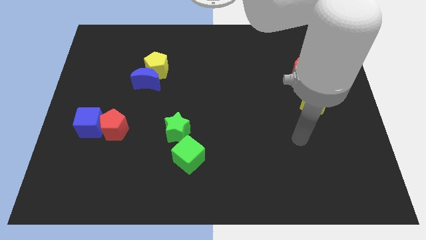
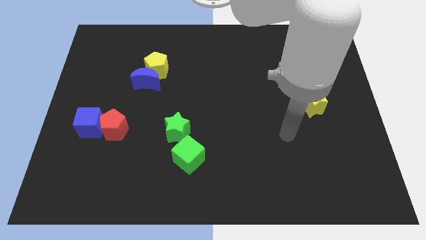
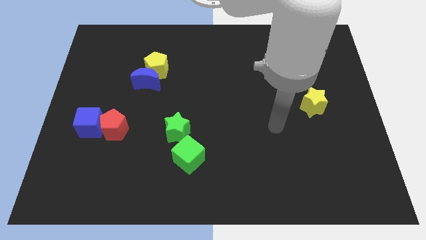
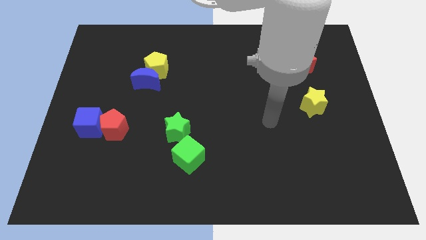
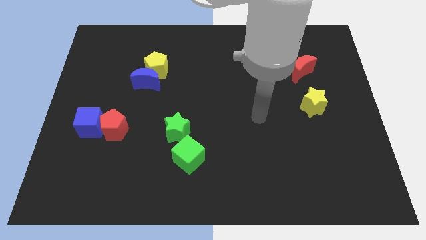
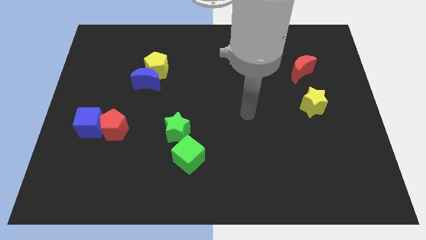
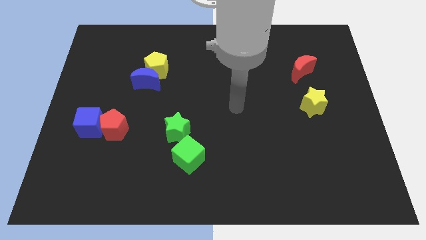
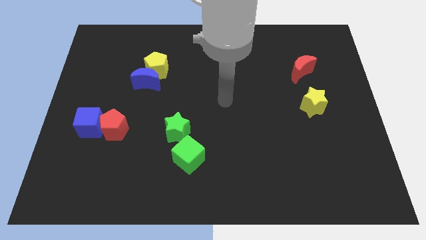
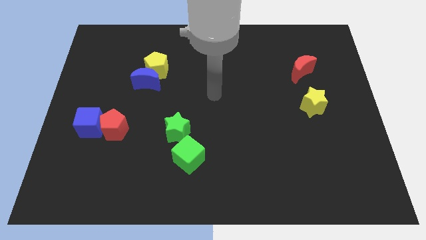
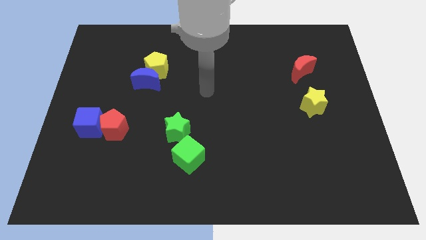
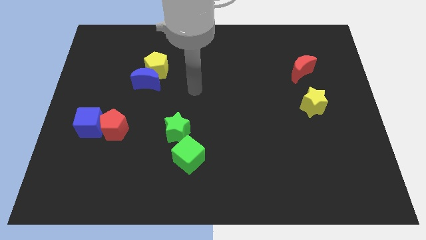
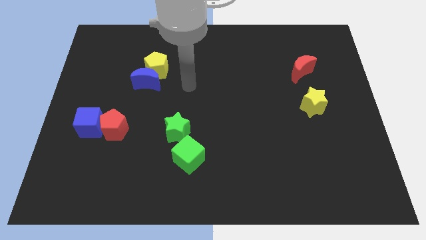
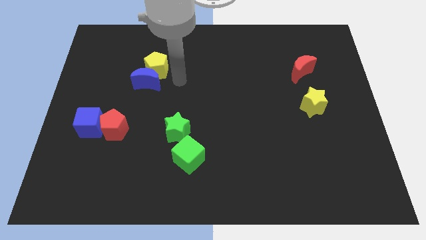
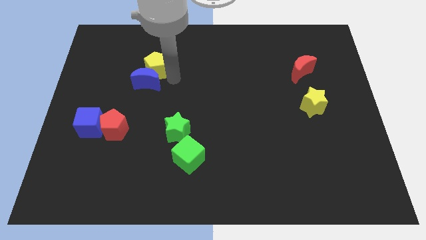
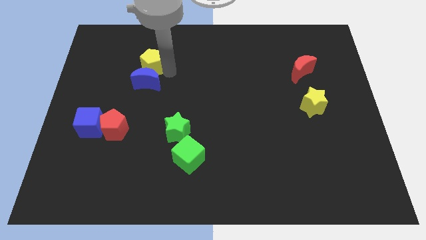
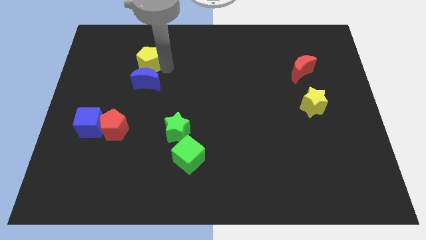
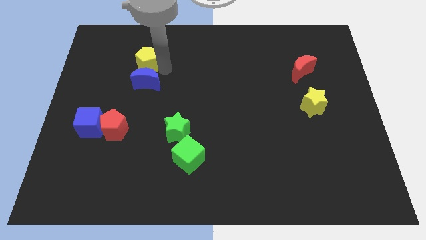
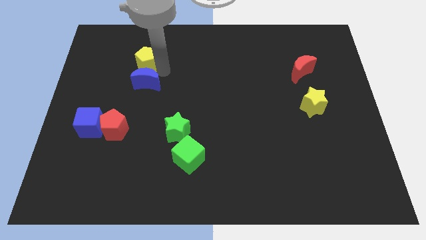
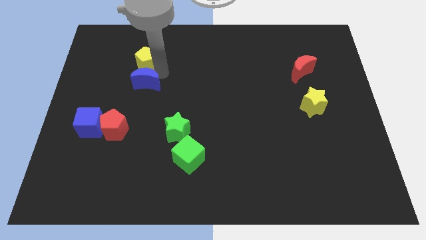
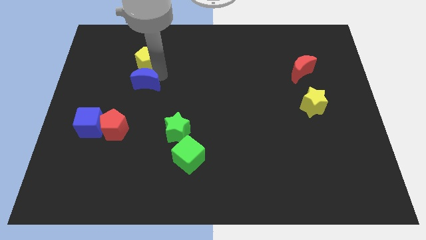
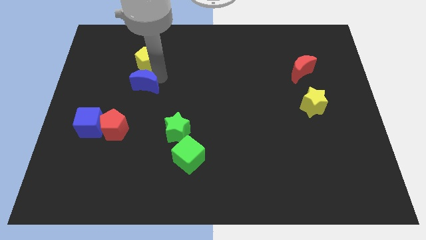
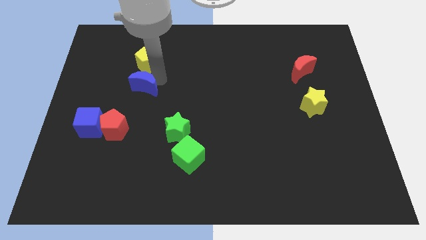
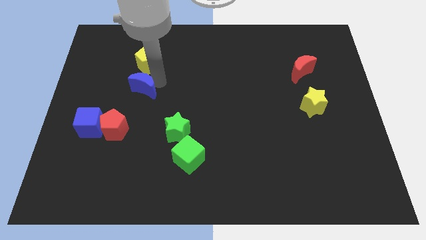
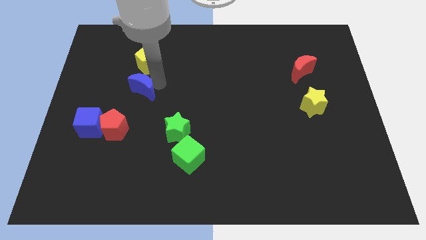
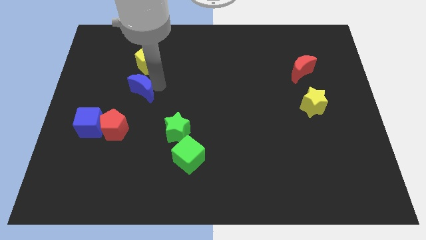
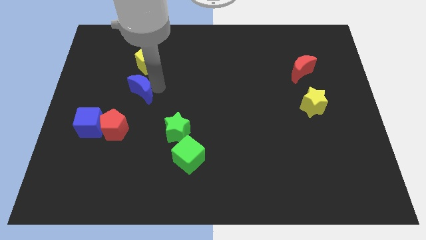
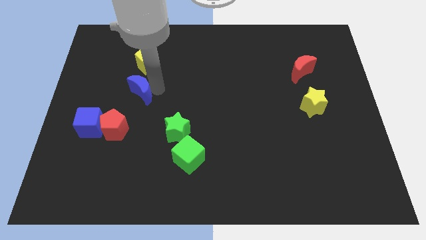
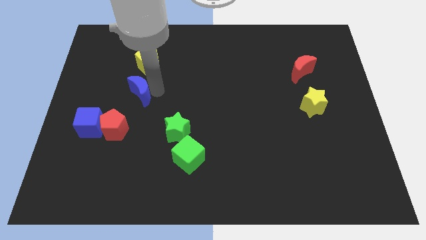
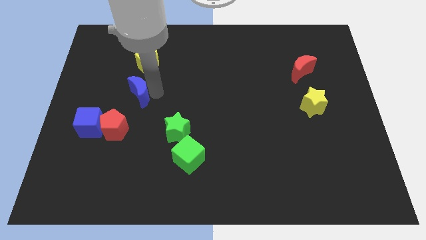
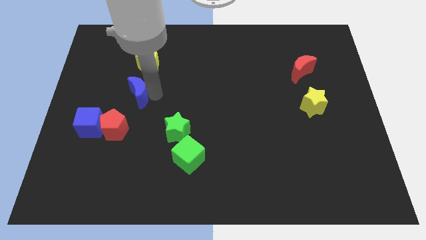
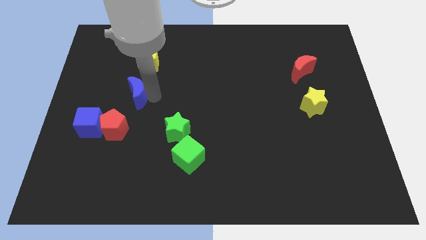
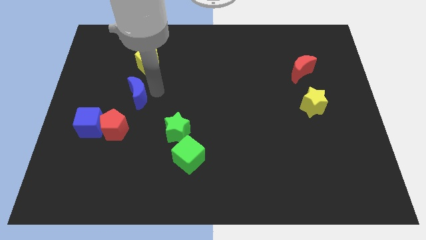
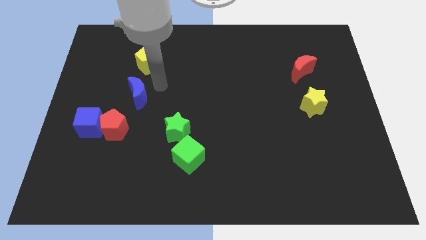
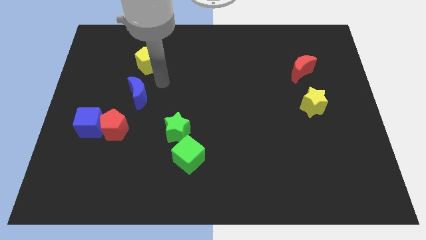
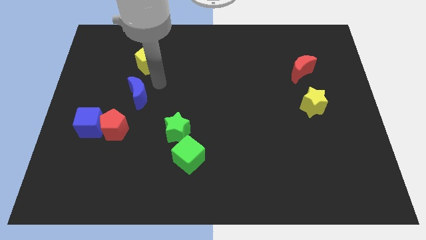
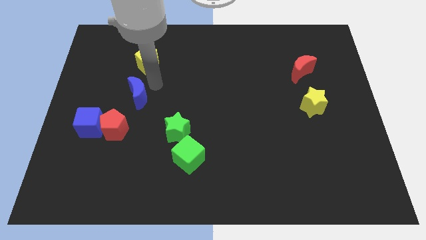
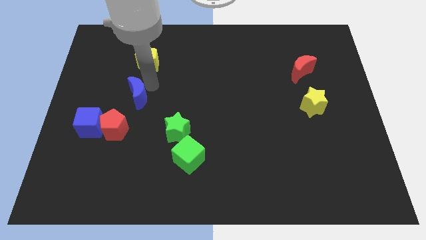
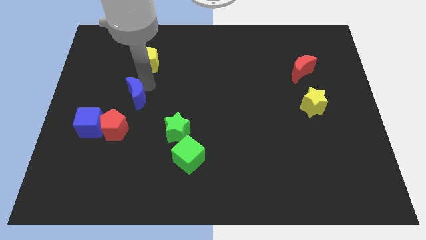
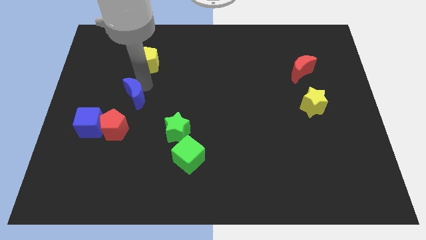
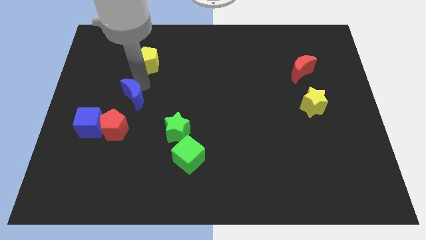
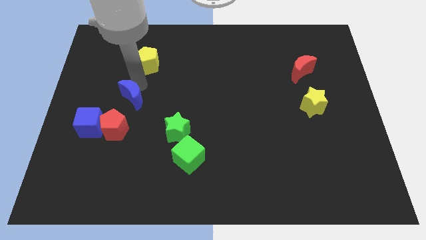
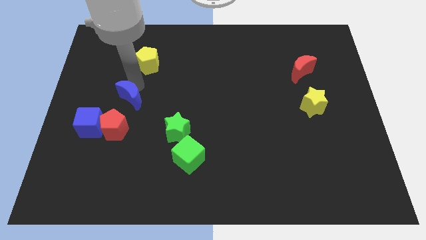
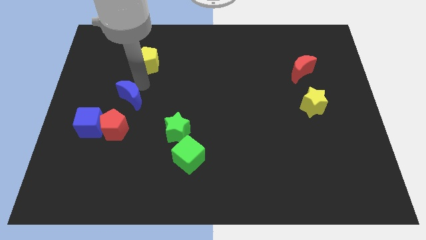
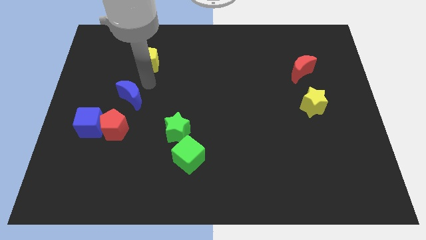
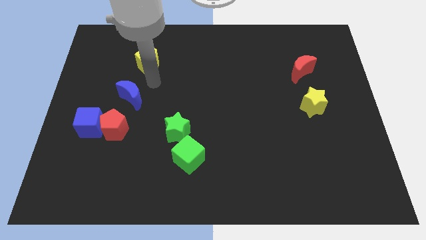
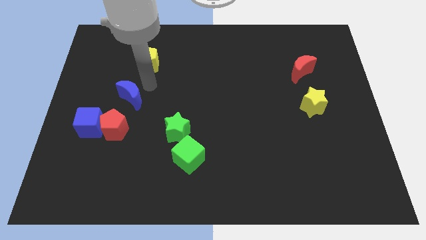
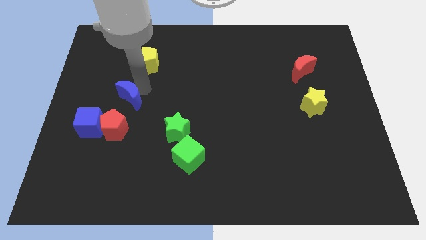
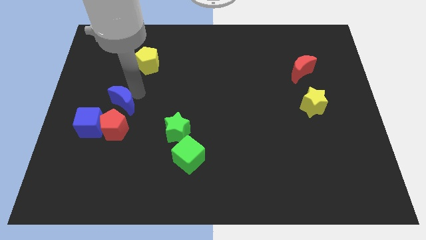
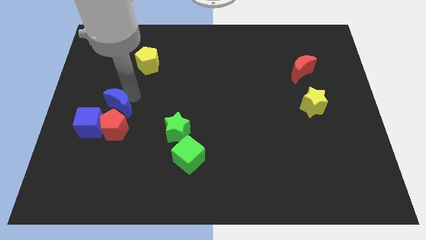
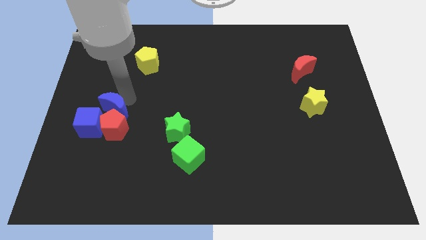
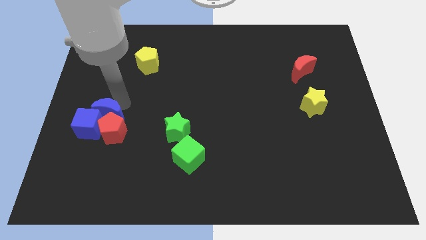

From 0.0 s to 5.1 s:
slide the blue moon towards the blue cube

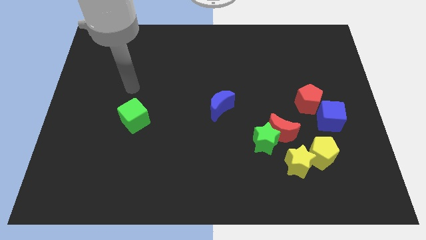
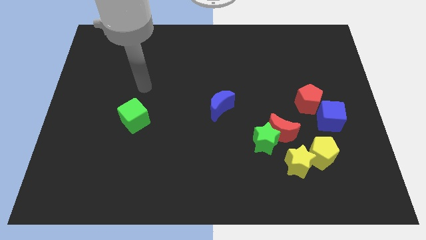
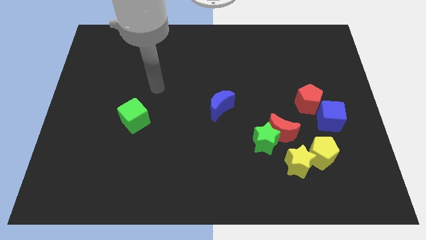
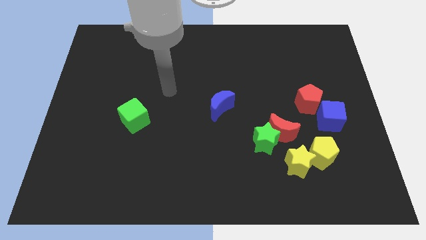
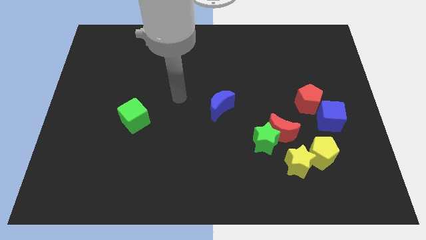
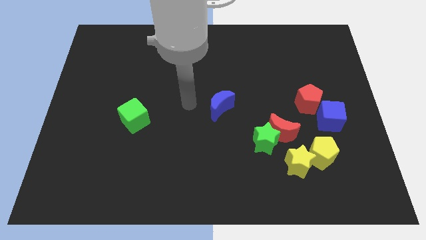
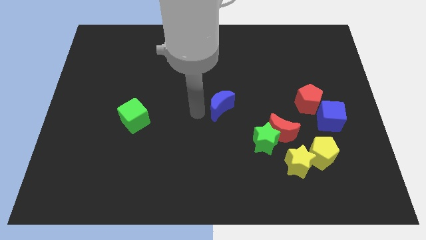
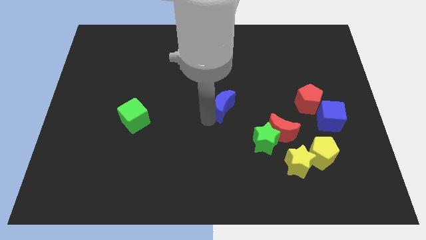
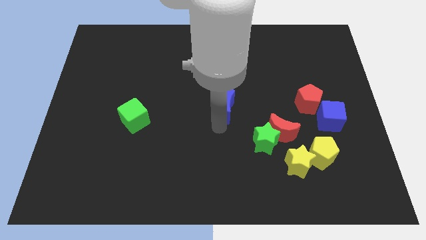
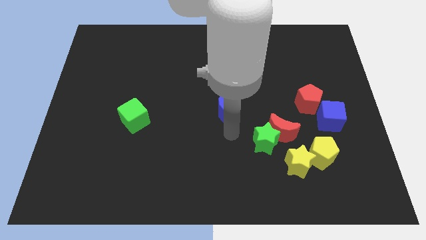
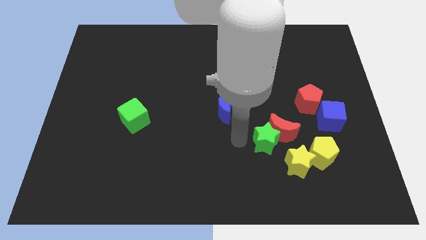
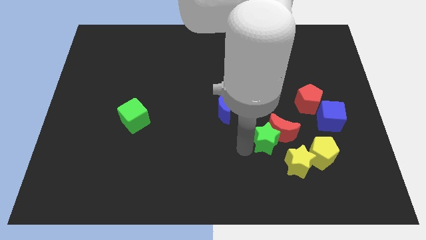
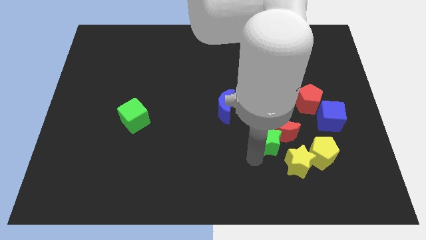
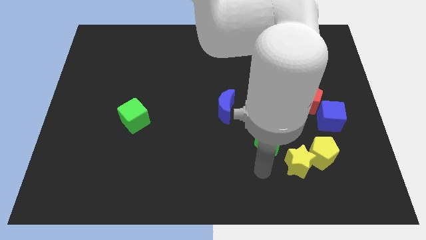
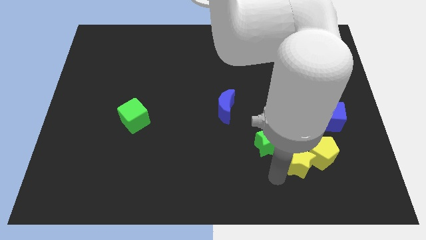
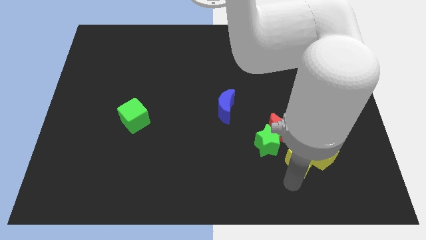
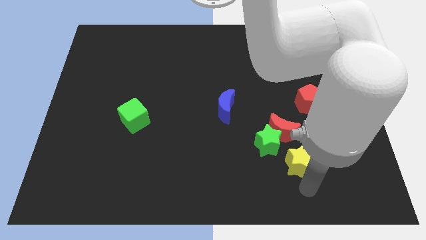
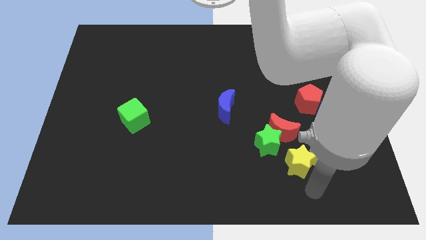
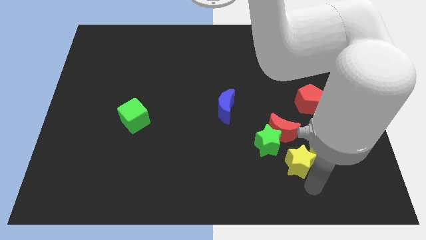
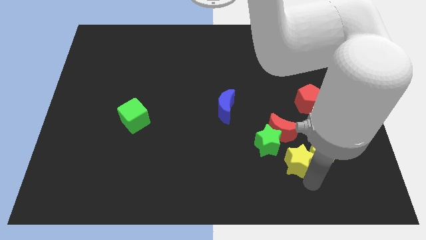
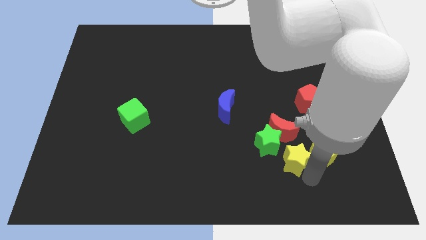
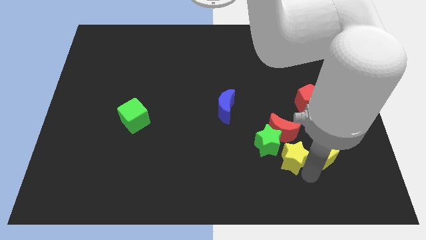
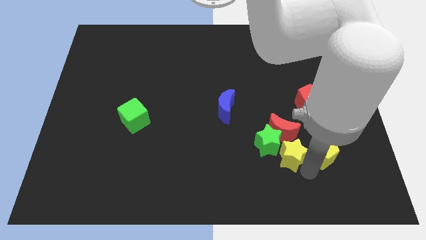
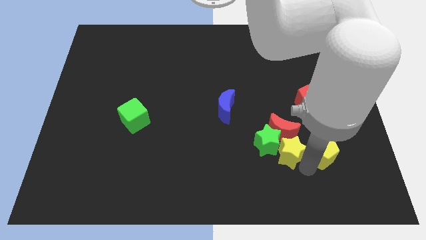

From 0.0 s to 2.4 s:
move the yellow star to the red moon

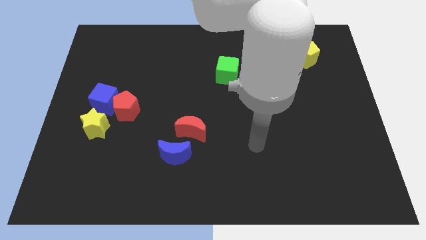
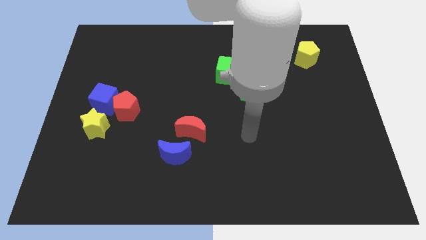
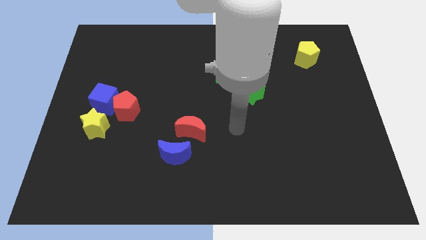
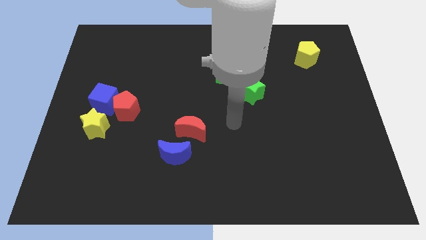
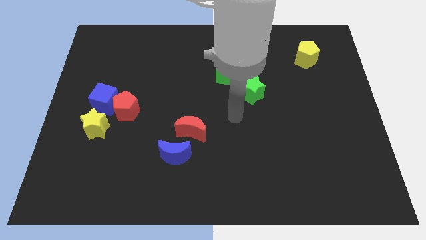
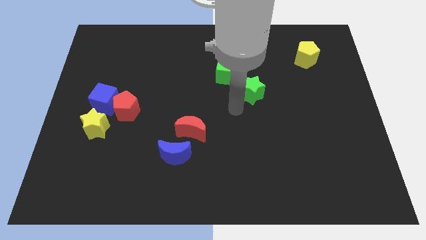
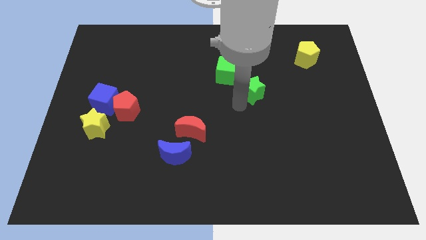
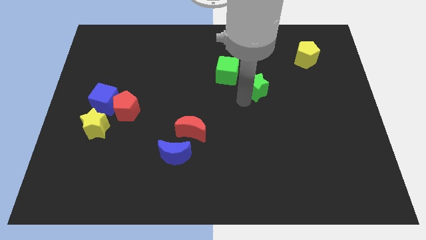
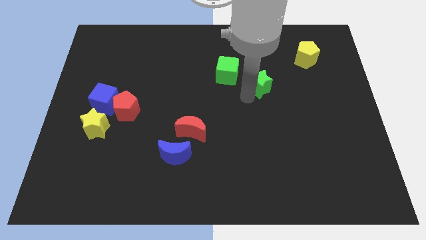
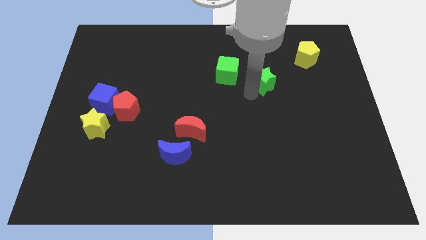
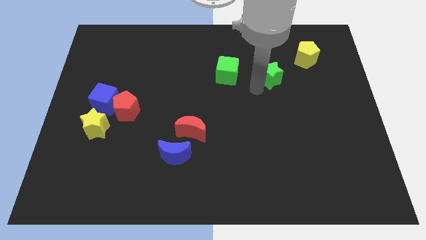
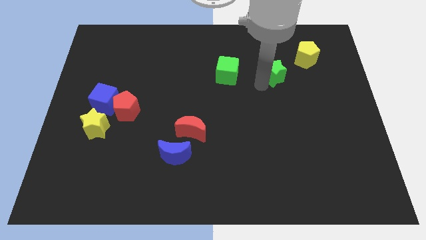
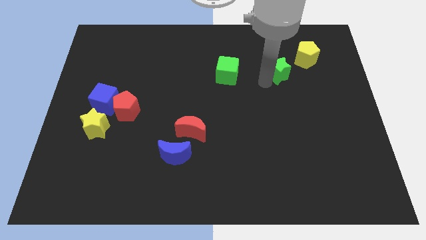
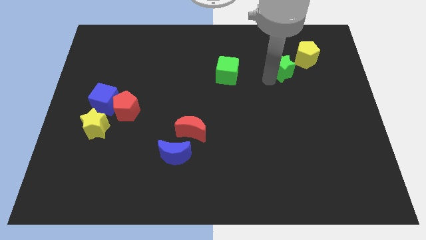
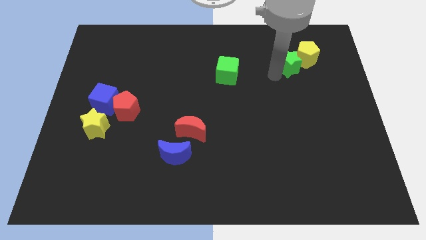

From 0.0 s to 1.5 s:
move the green star towards the yellow pentagon
